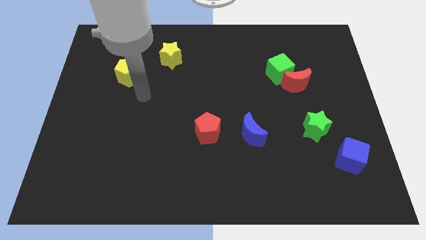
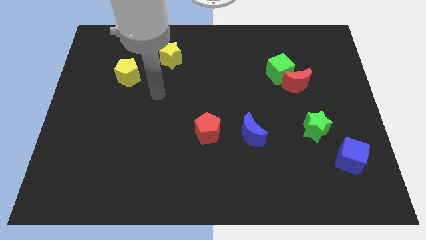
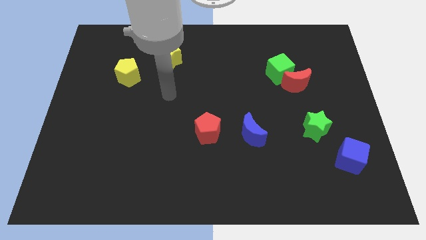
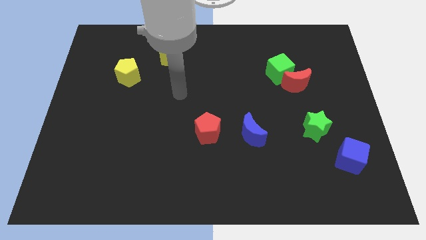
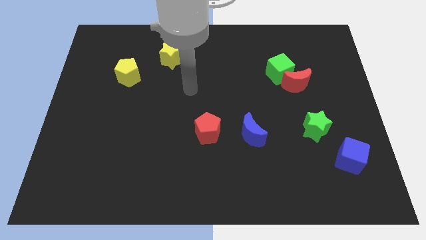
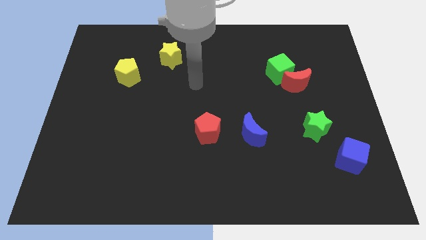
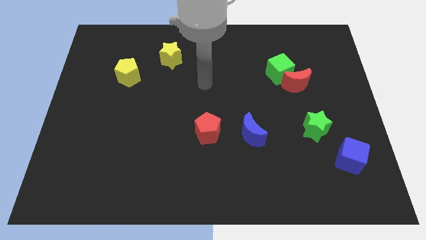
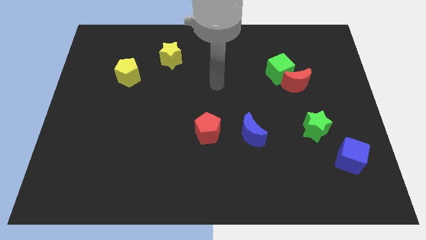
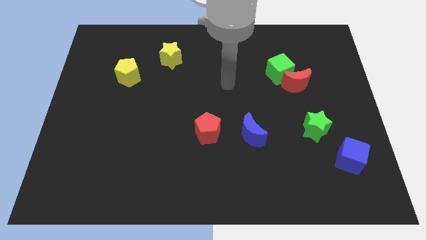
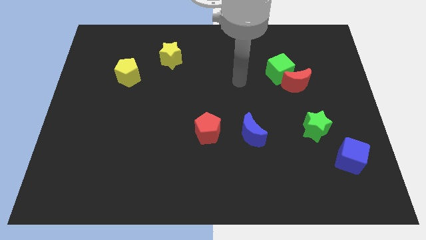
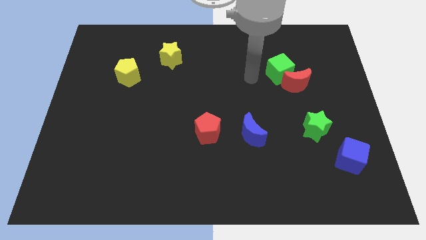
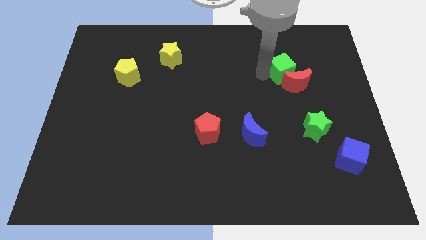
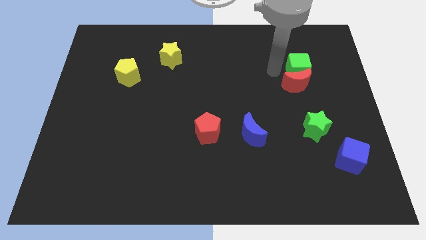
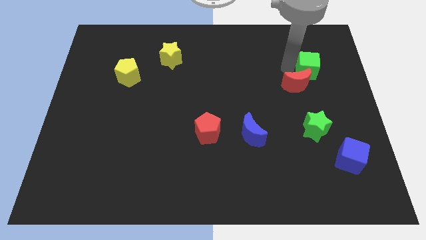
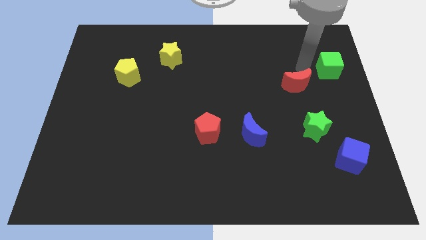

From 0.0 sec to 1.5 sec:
pull the red moon apart from the green cube

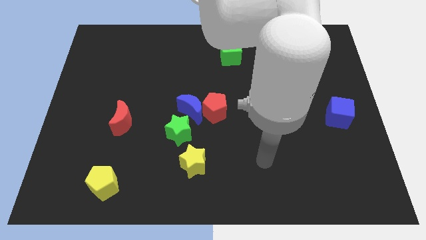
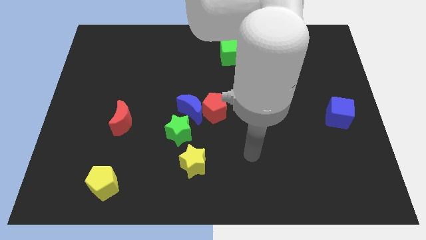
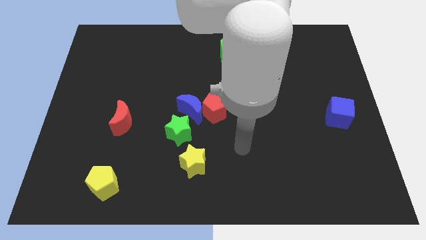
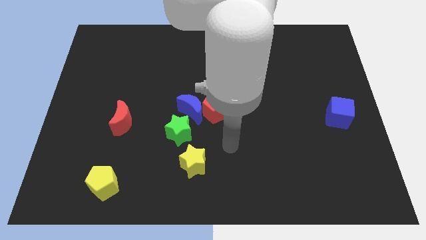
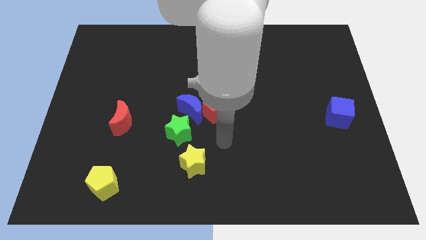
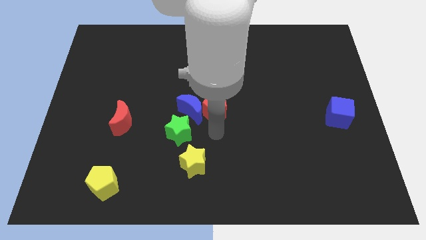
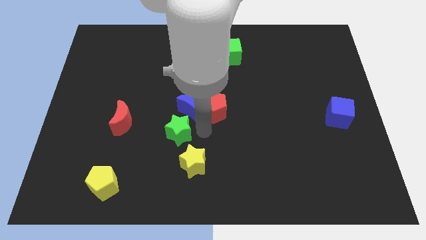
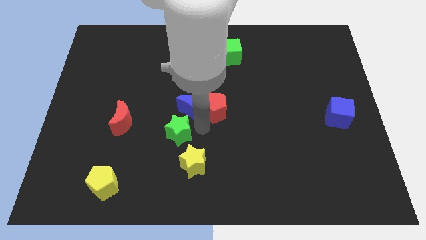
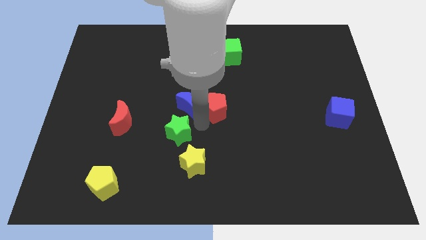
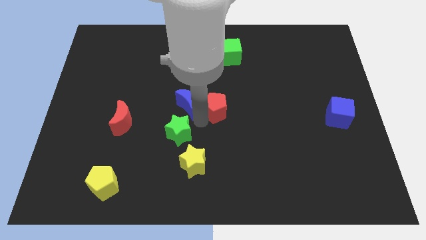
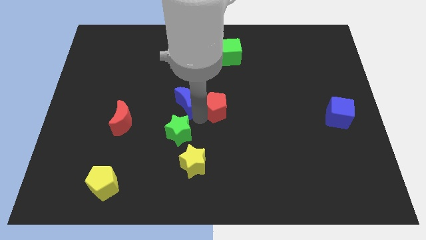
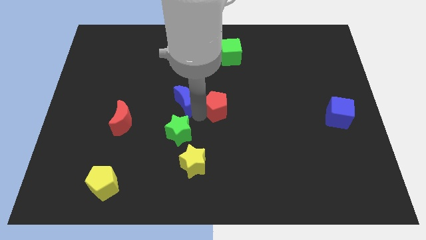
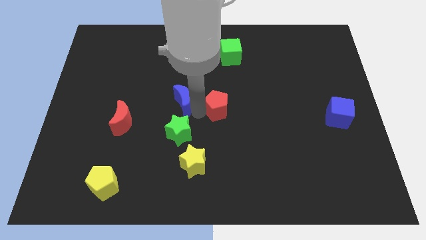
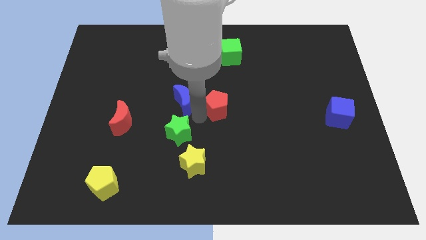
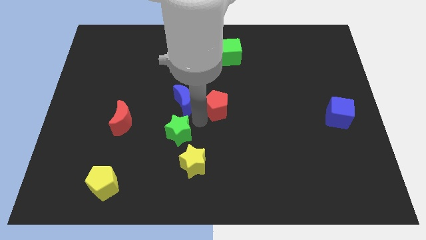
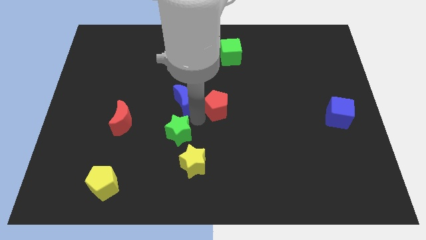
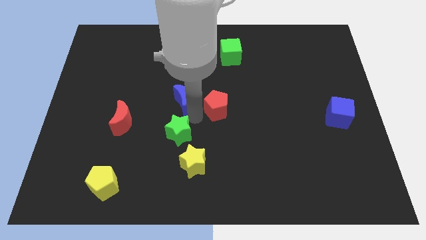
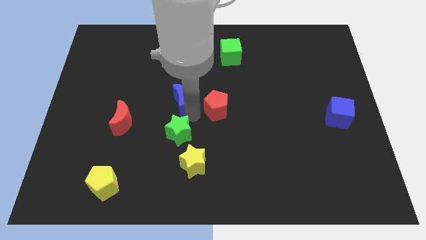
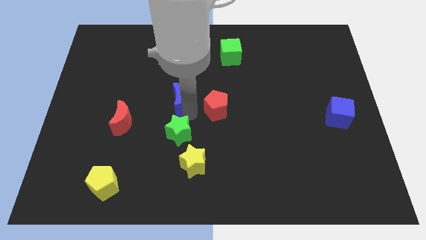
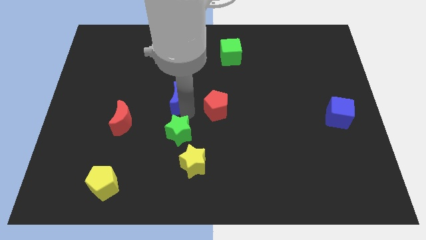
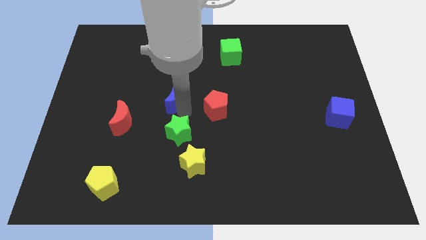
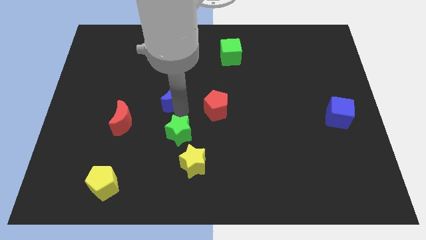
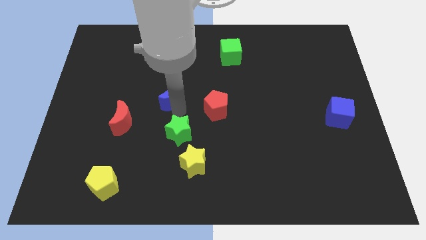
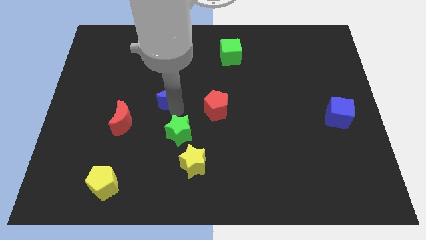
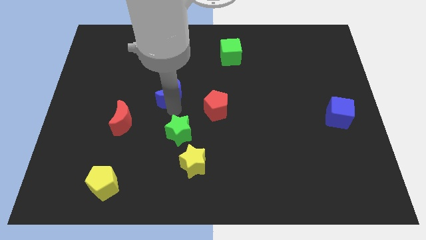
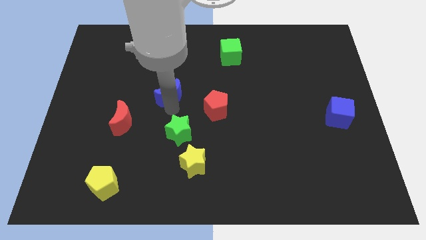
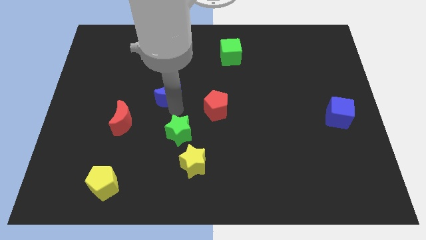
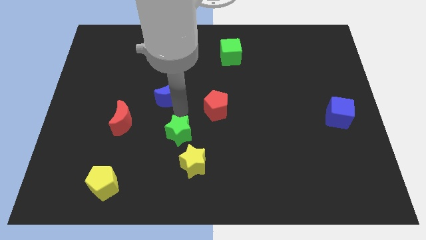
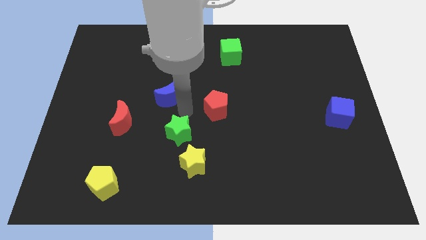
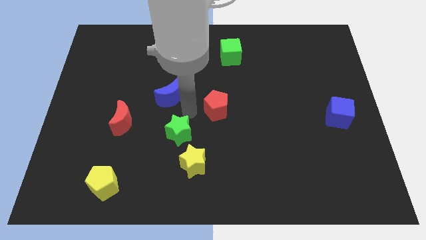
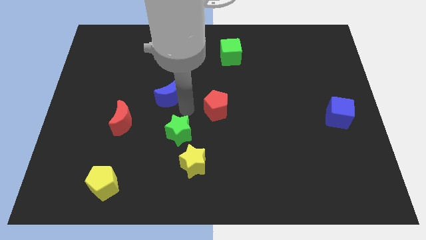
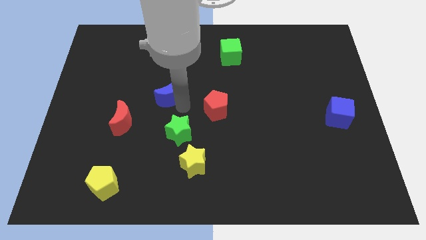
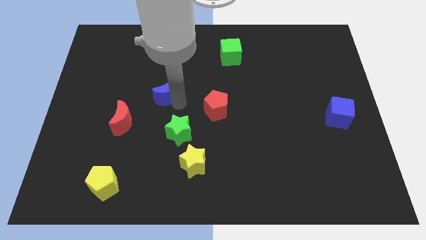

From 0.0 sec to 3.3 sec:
move the blue moon away from the red pentagon and green star

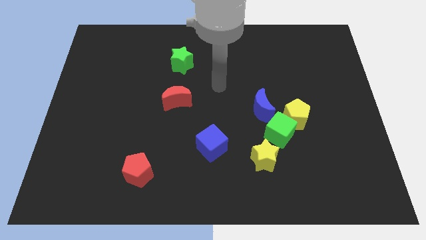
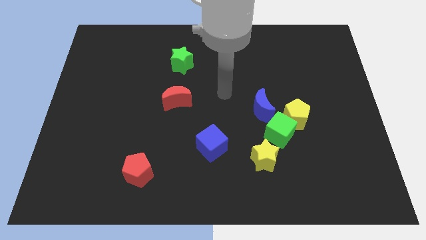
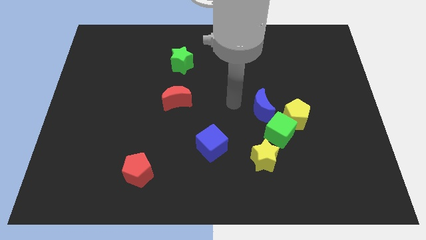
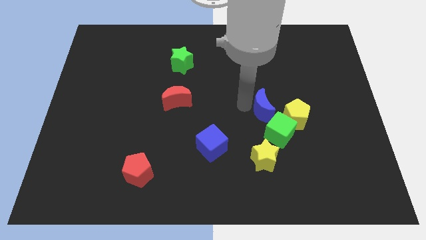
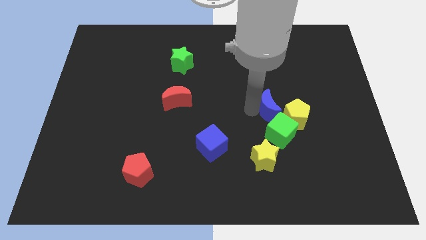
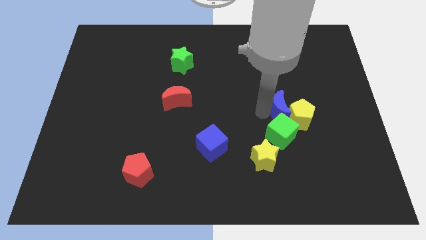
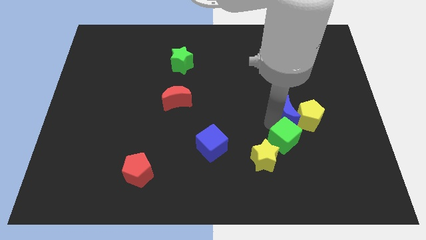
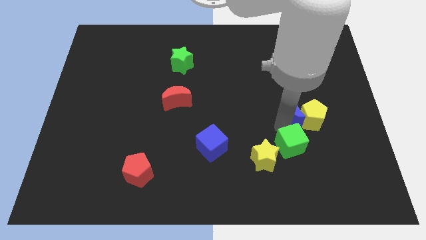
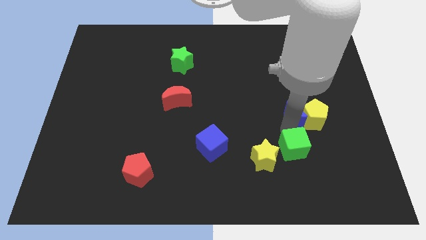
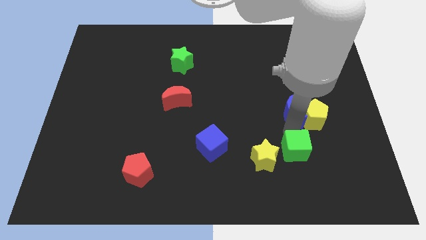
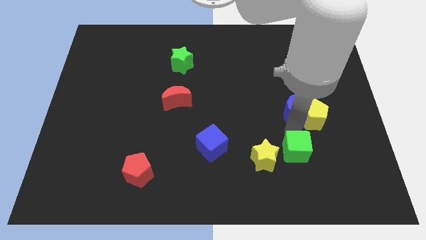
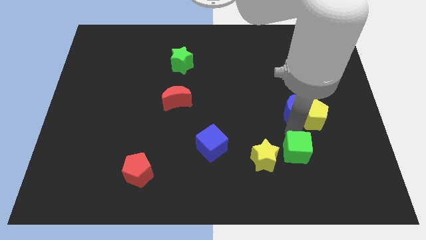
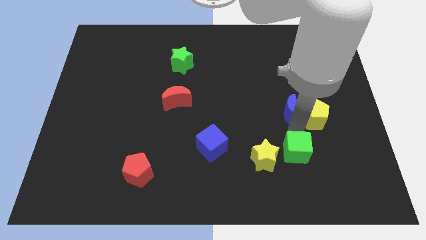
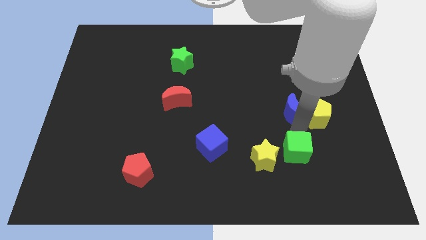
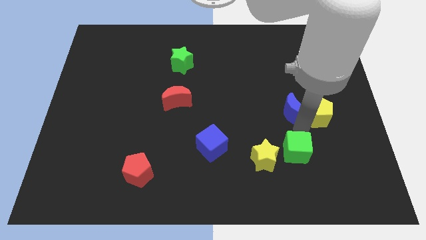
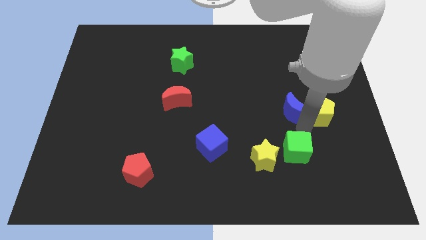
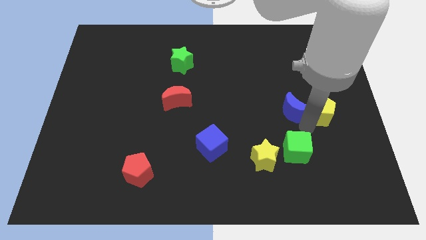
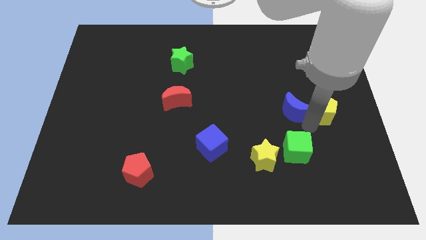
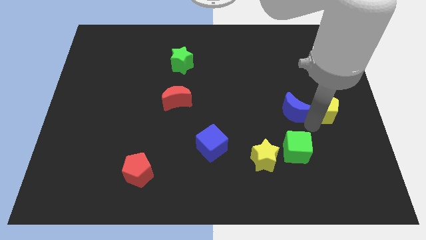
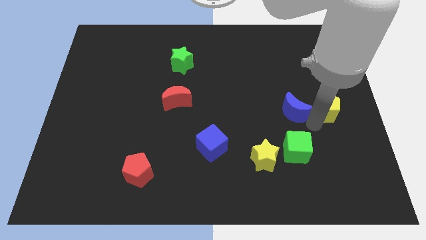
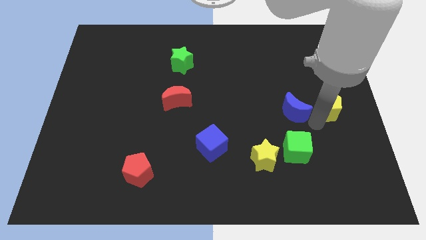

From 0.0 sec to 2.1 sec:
pull the yellow pentagon apart from the green cube and blue moon

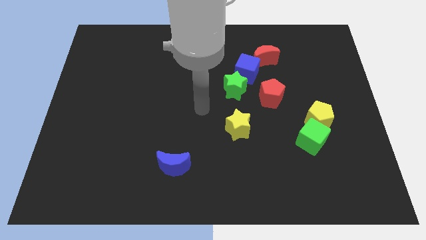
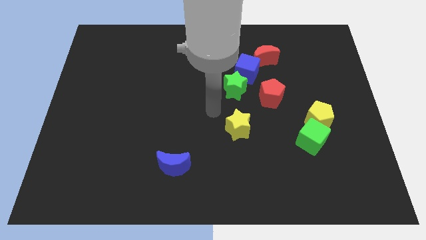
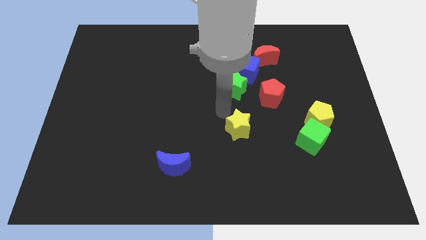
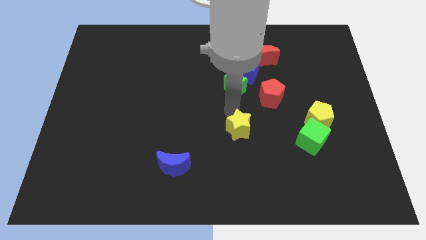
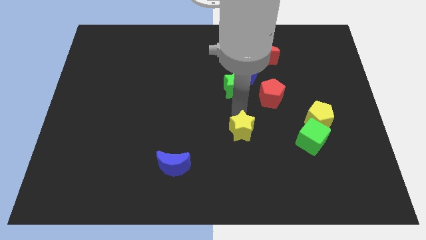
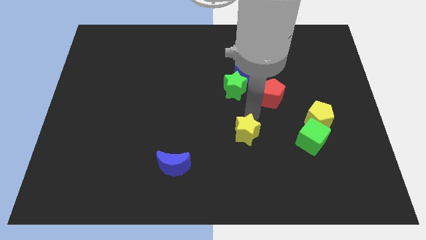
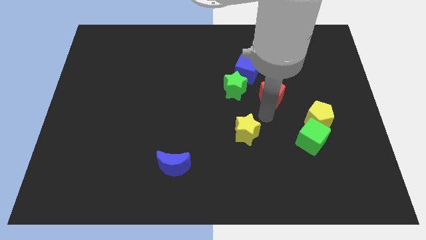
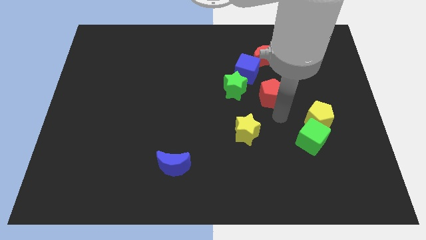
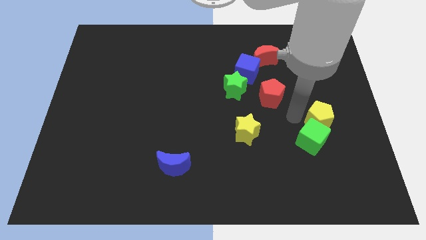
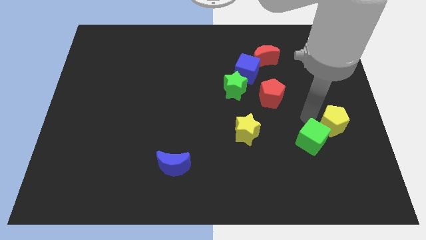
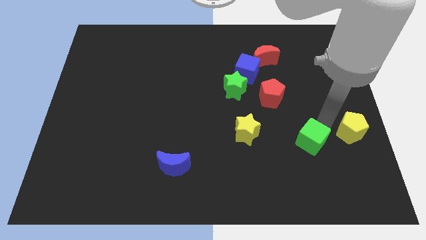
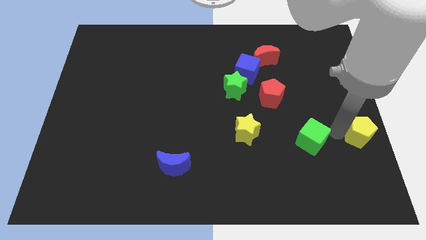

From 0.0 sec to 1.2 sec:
move the green cube away from the yellow pentagon

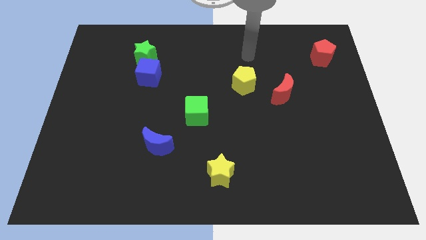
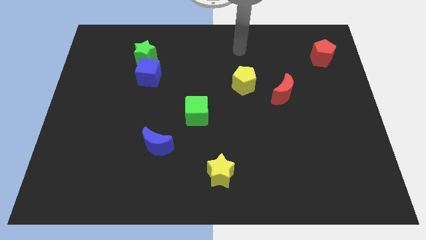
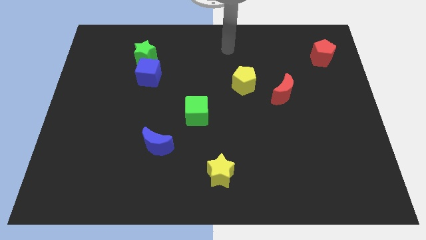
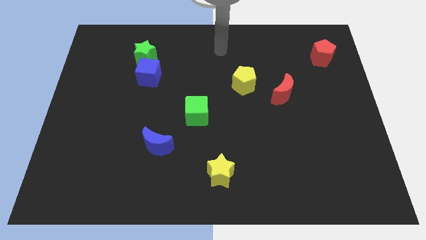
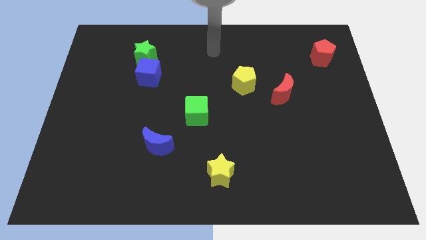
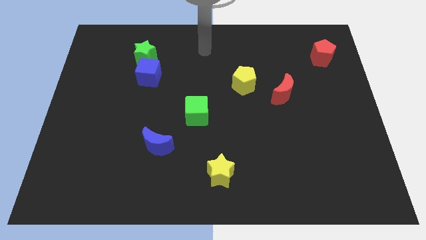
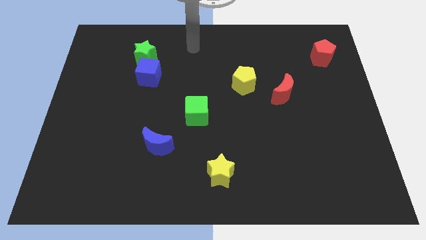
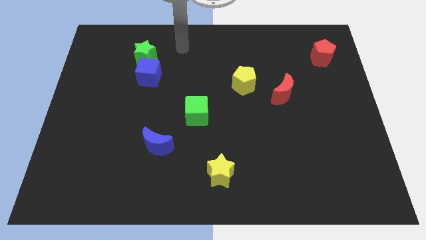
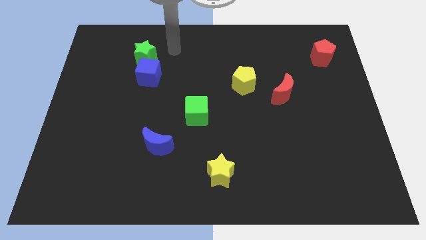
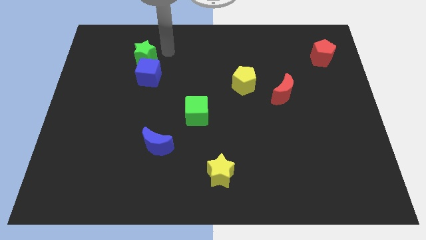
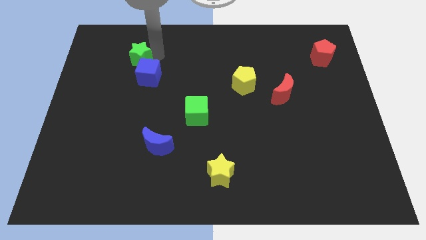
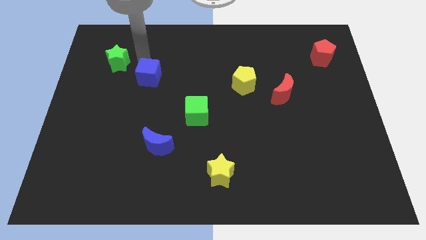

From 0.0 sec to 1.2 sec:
pull the blue cube apart from the green star
